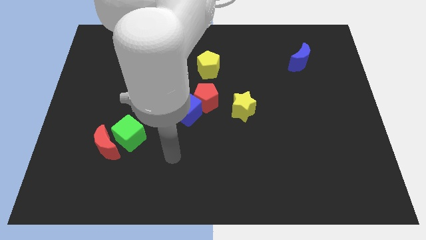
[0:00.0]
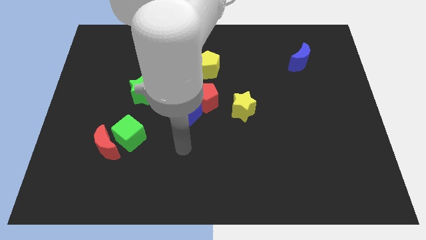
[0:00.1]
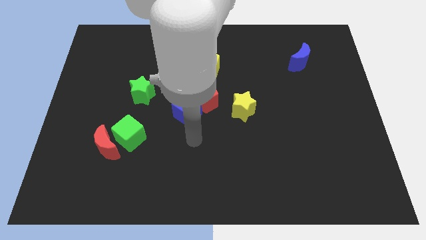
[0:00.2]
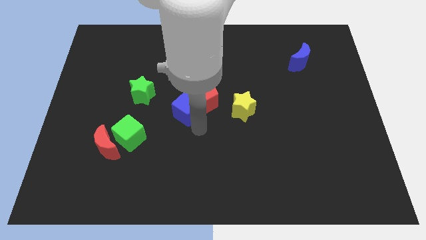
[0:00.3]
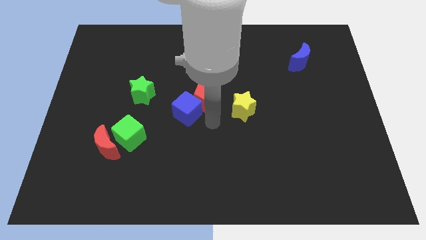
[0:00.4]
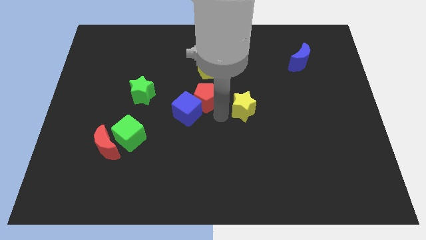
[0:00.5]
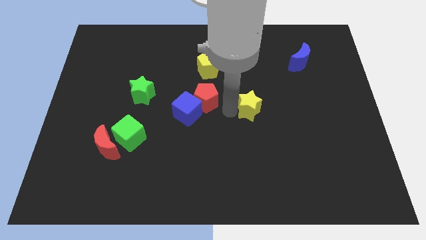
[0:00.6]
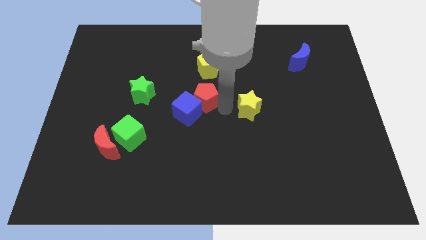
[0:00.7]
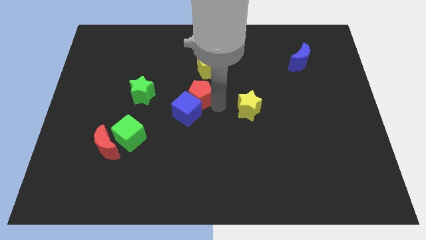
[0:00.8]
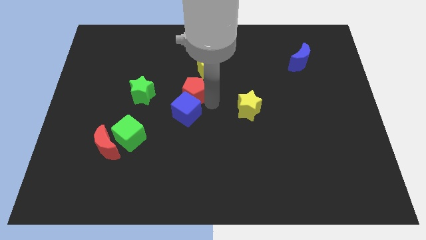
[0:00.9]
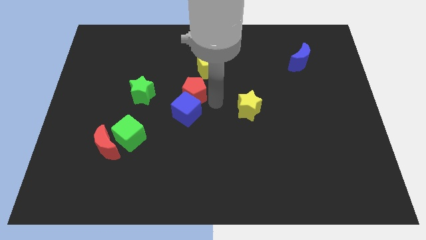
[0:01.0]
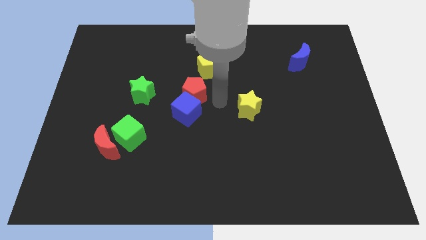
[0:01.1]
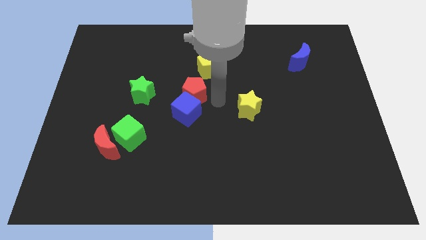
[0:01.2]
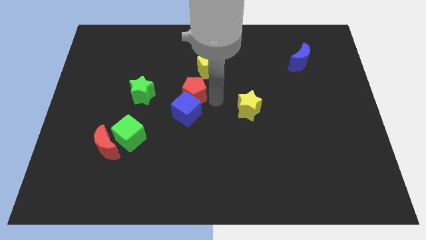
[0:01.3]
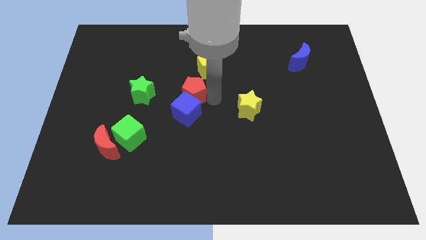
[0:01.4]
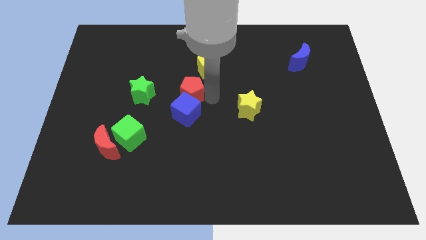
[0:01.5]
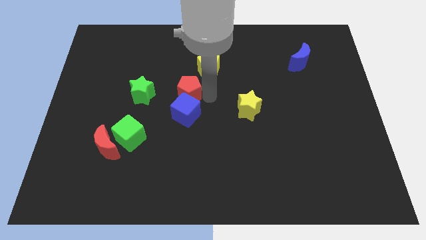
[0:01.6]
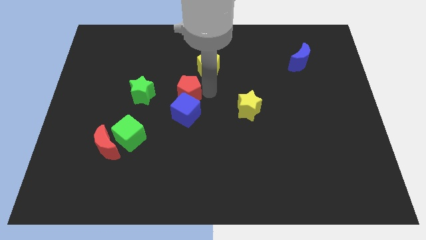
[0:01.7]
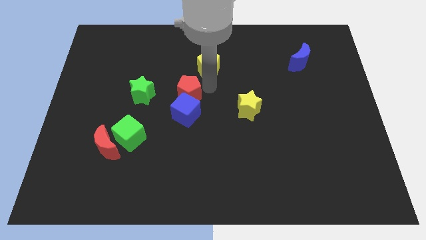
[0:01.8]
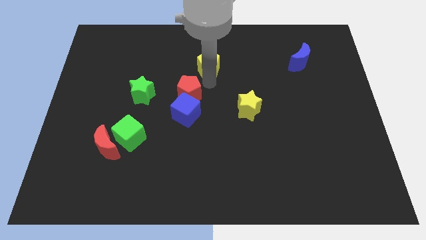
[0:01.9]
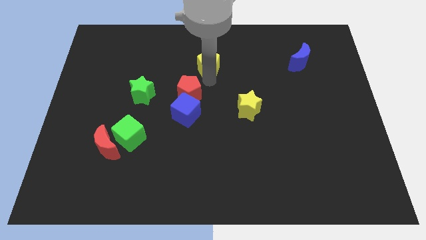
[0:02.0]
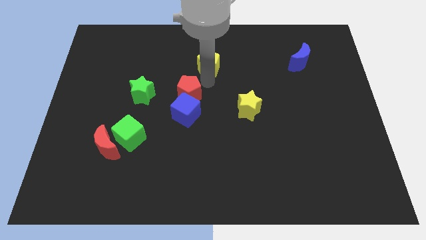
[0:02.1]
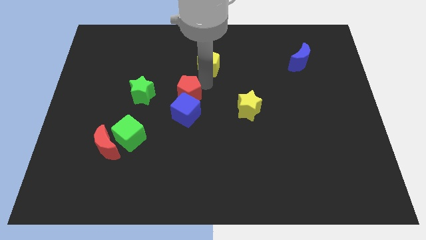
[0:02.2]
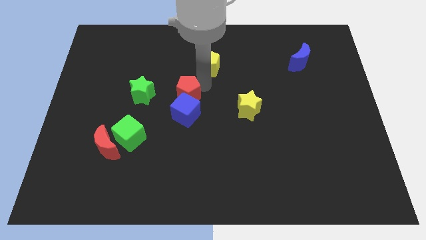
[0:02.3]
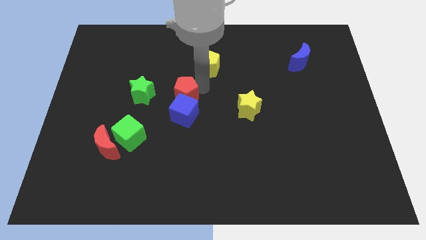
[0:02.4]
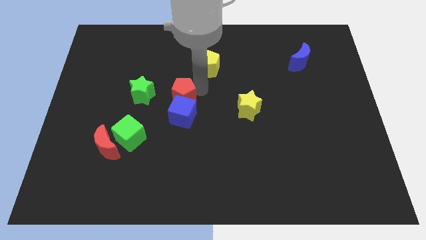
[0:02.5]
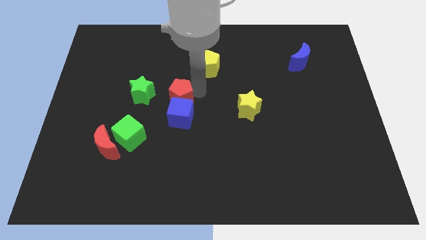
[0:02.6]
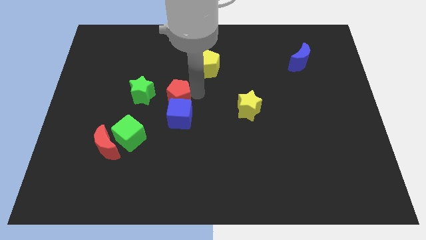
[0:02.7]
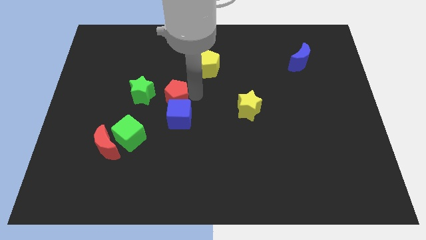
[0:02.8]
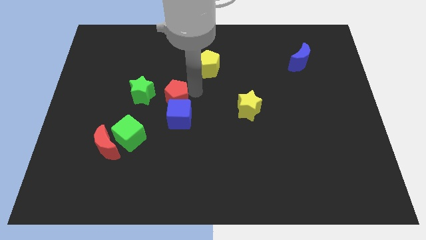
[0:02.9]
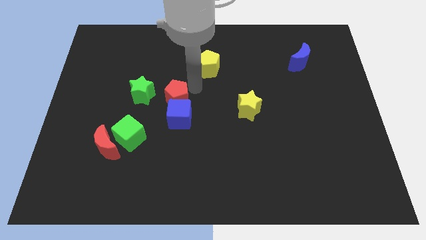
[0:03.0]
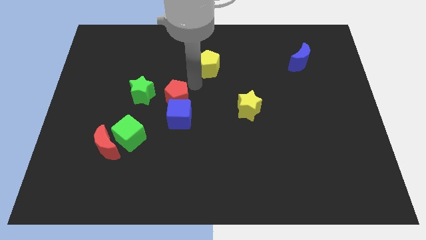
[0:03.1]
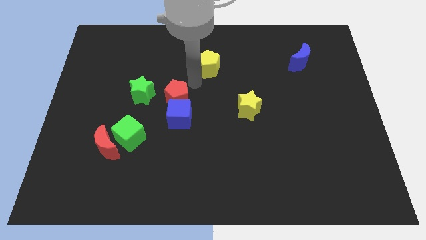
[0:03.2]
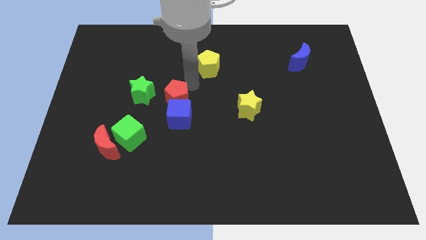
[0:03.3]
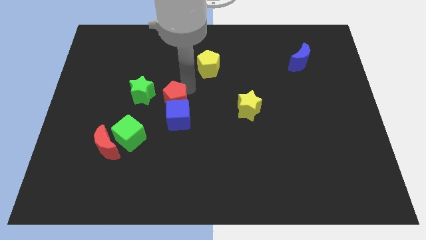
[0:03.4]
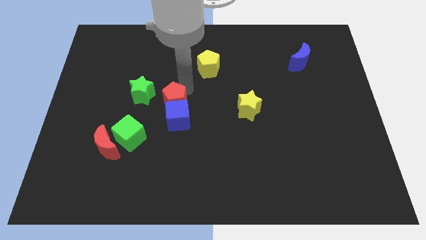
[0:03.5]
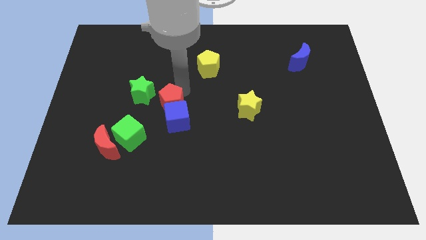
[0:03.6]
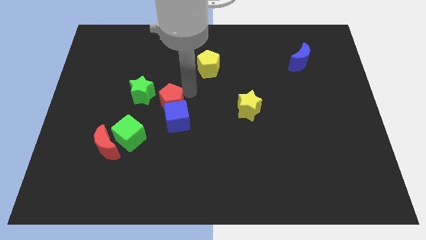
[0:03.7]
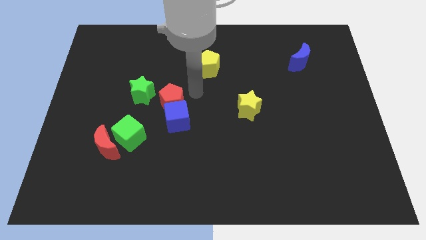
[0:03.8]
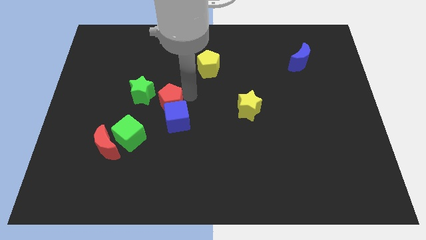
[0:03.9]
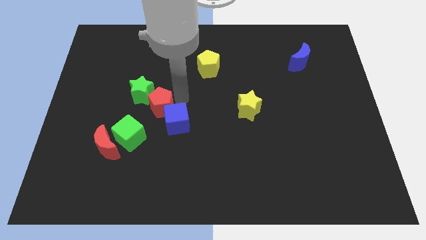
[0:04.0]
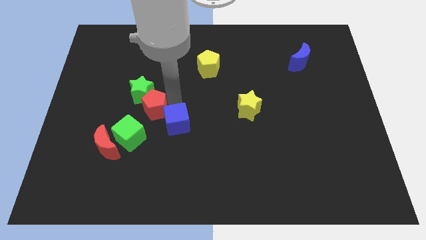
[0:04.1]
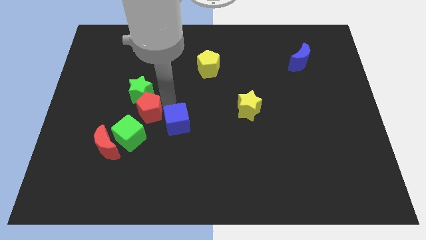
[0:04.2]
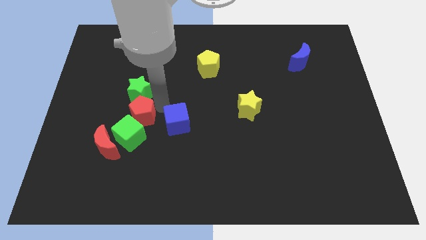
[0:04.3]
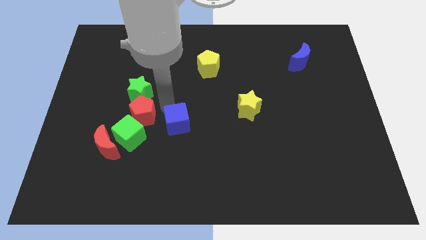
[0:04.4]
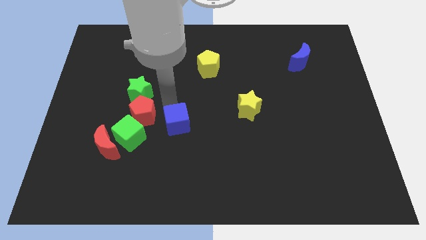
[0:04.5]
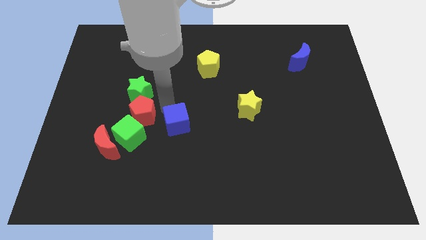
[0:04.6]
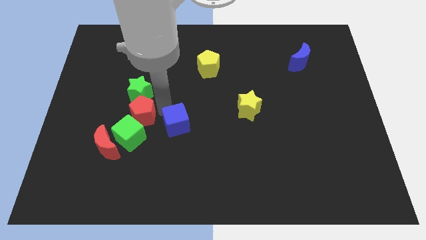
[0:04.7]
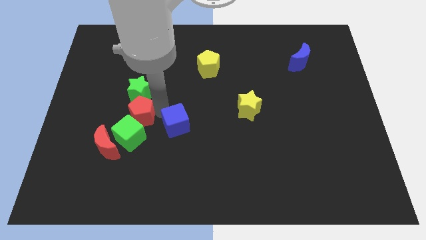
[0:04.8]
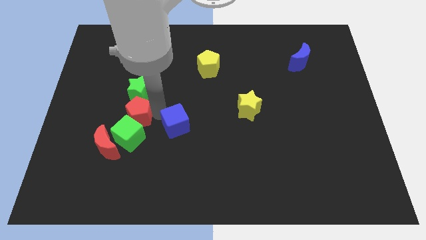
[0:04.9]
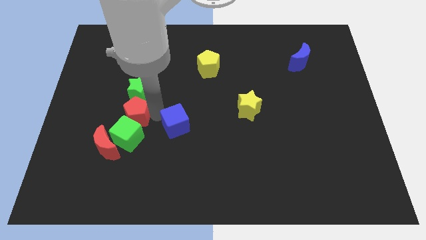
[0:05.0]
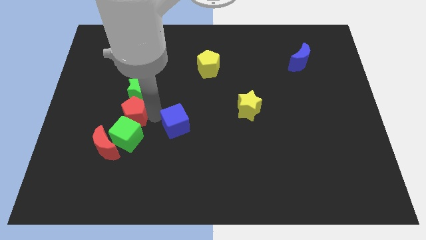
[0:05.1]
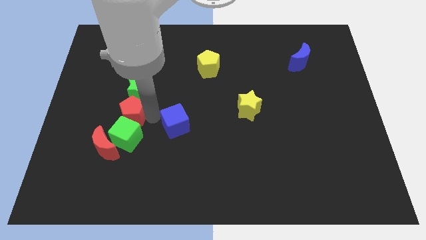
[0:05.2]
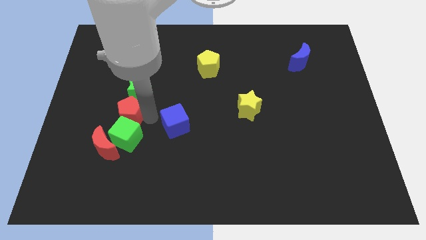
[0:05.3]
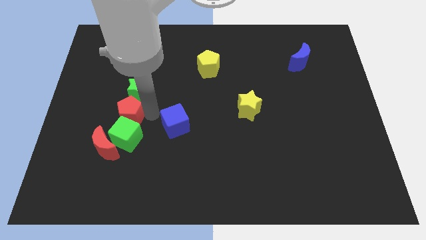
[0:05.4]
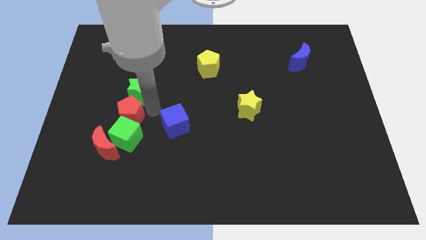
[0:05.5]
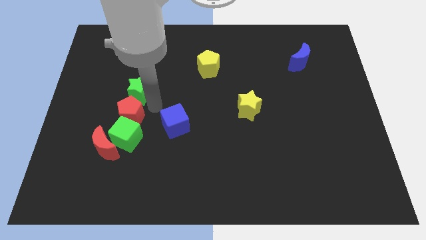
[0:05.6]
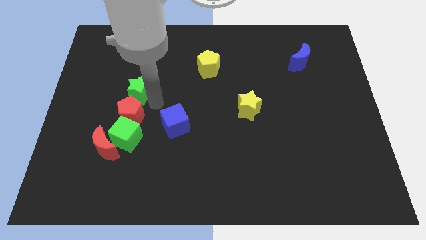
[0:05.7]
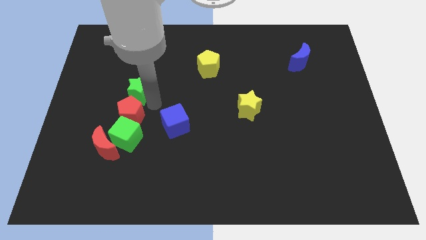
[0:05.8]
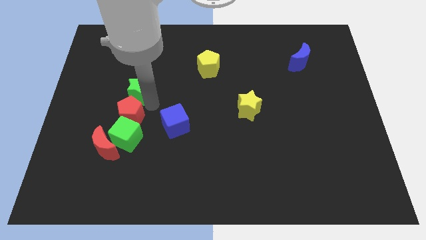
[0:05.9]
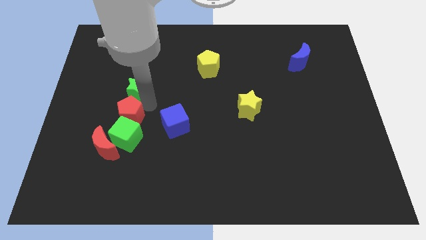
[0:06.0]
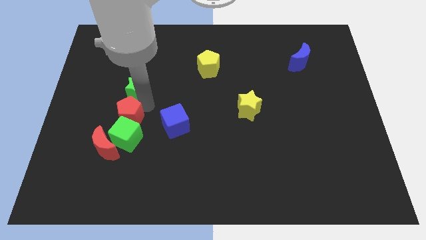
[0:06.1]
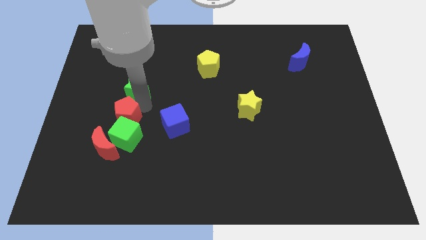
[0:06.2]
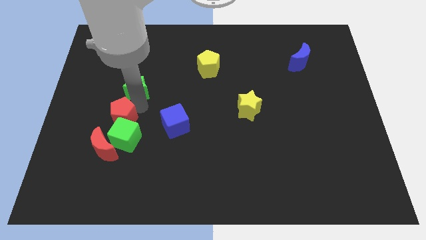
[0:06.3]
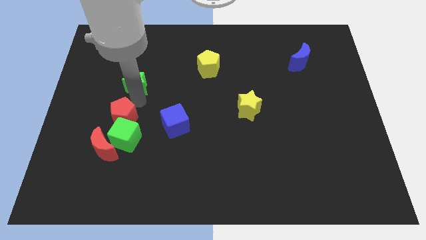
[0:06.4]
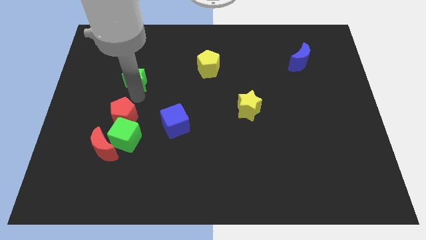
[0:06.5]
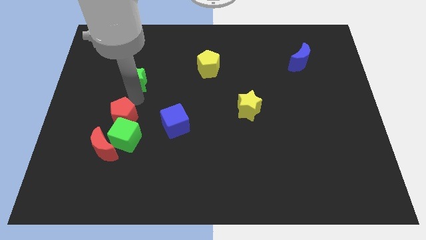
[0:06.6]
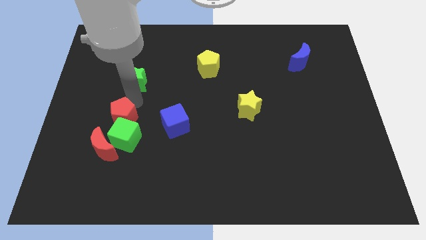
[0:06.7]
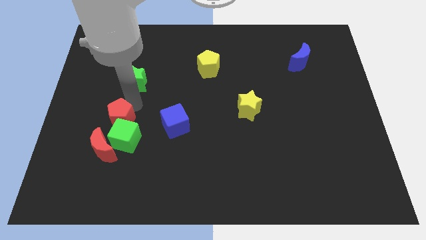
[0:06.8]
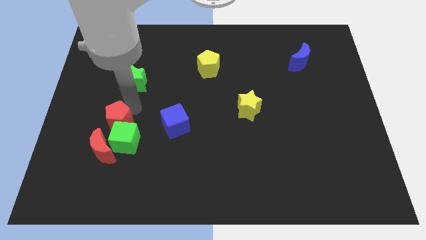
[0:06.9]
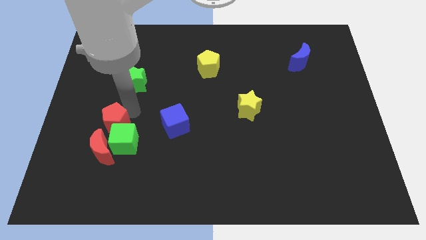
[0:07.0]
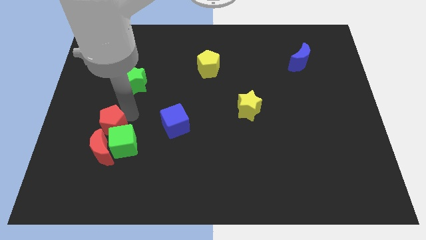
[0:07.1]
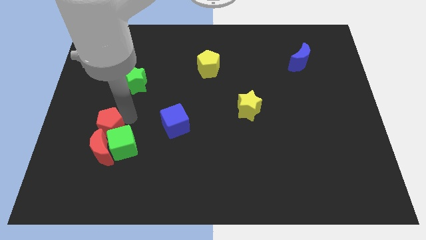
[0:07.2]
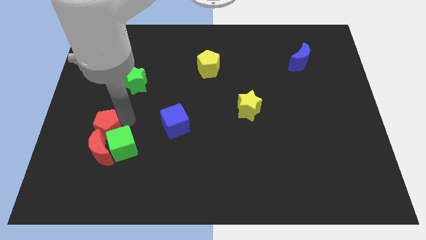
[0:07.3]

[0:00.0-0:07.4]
move the red pentagon towards the red moon
